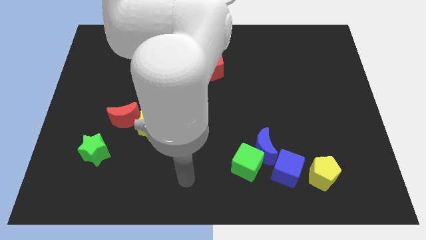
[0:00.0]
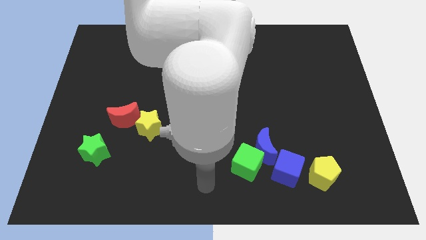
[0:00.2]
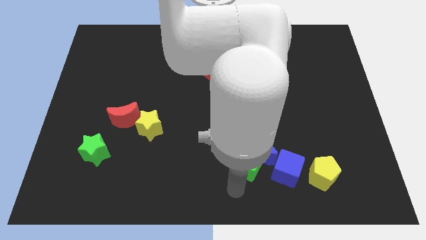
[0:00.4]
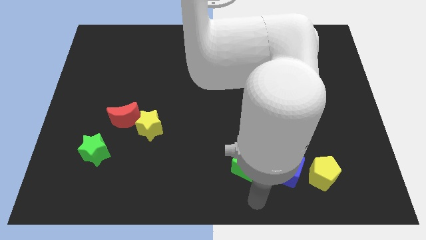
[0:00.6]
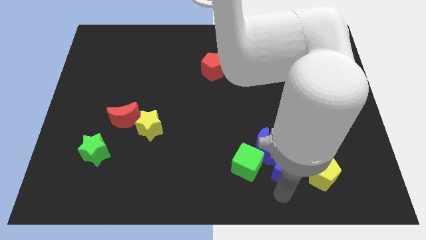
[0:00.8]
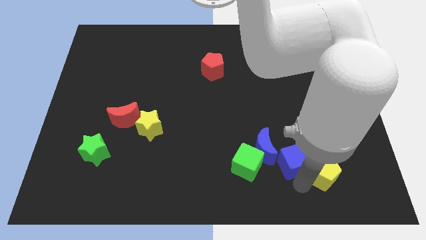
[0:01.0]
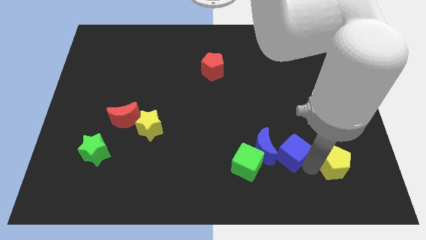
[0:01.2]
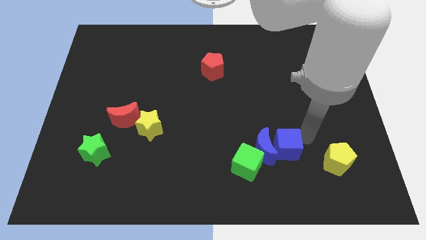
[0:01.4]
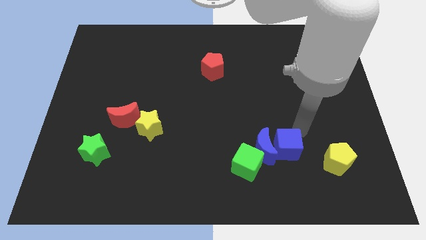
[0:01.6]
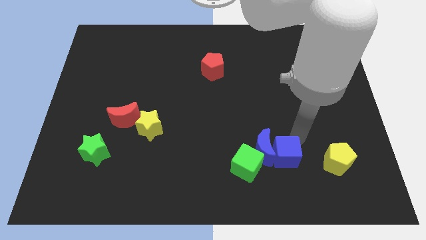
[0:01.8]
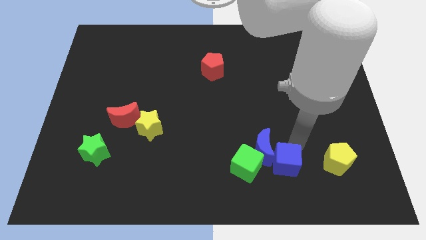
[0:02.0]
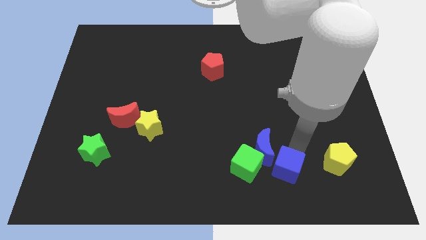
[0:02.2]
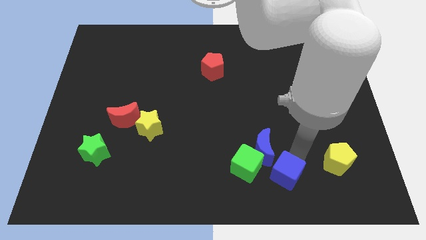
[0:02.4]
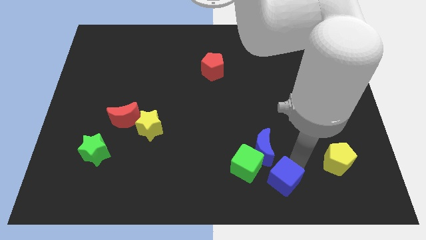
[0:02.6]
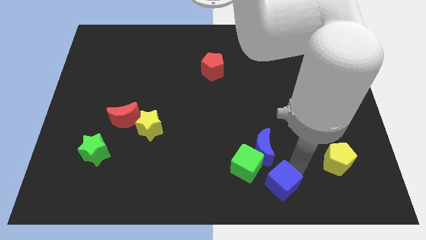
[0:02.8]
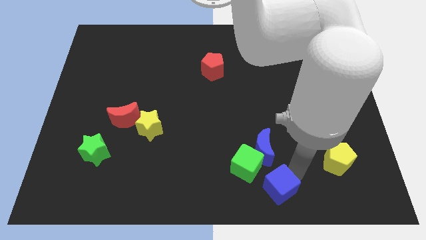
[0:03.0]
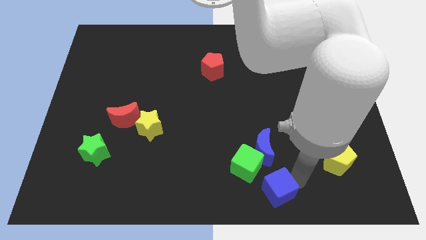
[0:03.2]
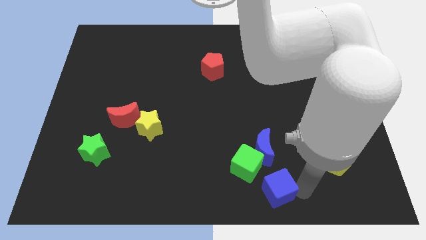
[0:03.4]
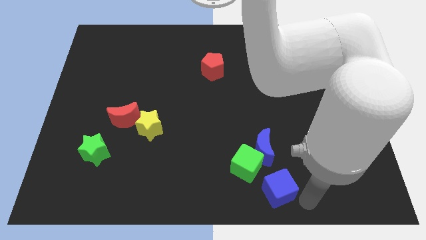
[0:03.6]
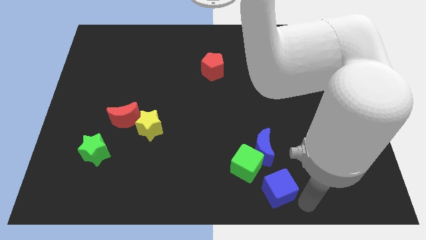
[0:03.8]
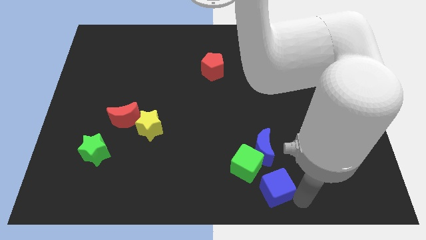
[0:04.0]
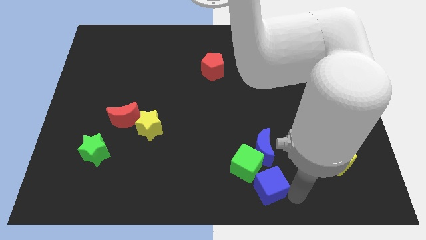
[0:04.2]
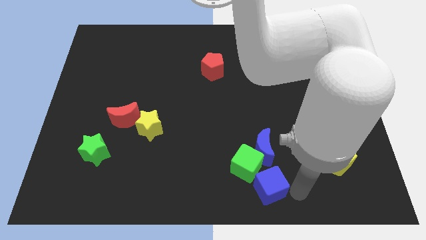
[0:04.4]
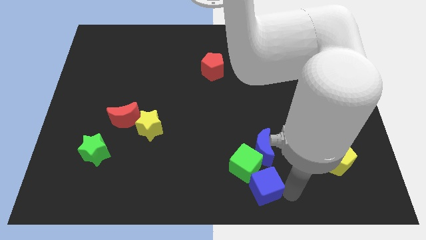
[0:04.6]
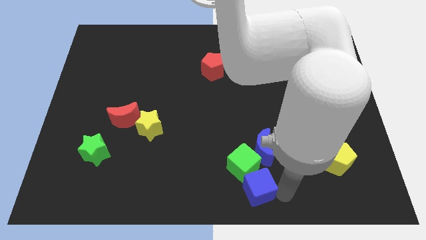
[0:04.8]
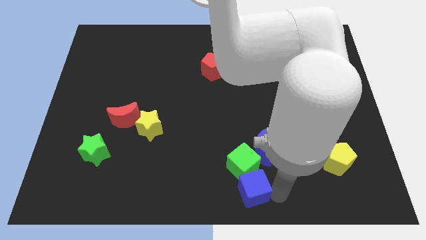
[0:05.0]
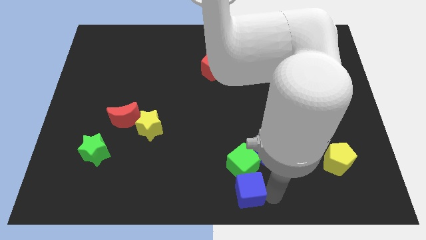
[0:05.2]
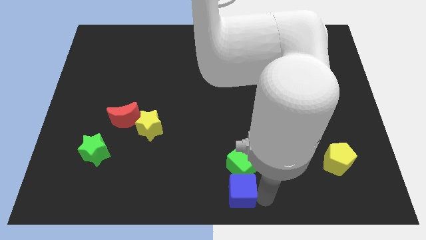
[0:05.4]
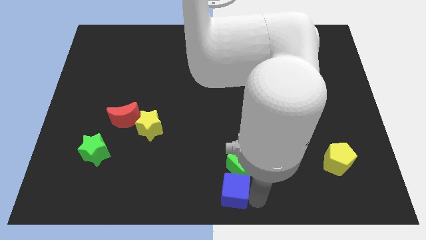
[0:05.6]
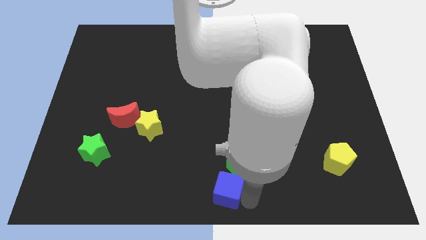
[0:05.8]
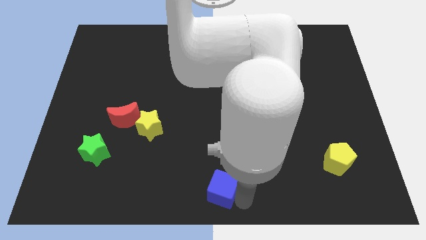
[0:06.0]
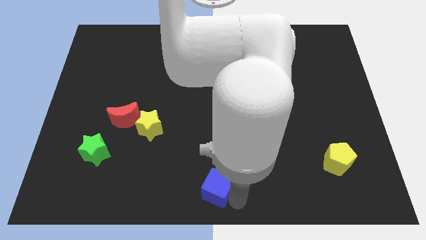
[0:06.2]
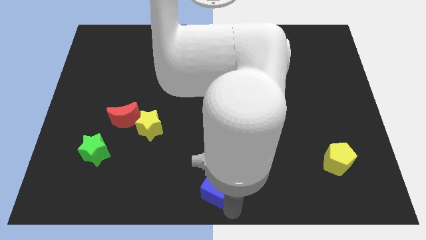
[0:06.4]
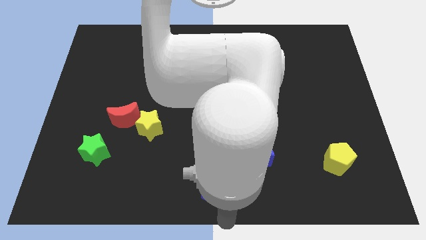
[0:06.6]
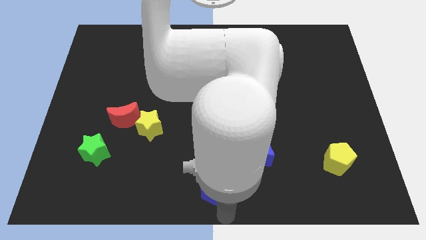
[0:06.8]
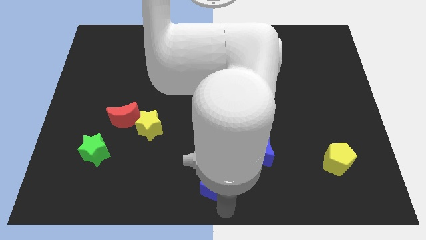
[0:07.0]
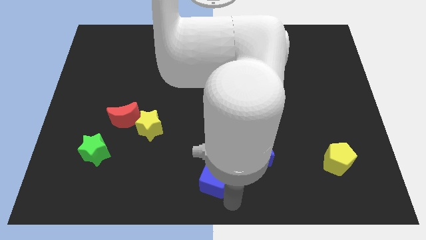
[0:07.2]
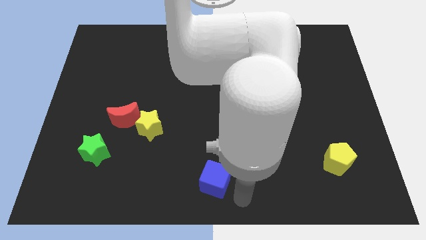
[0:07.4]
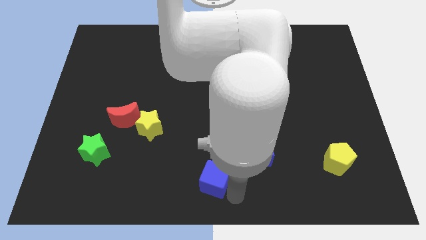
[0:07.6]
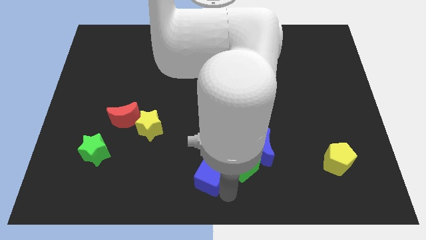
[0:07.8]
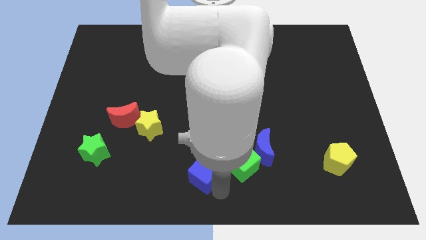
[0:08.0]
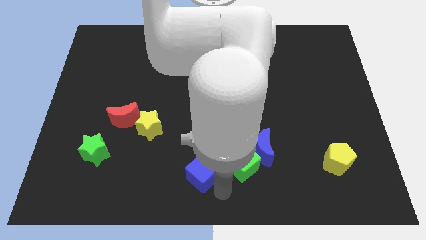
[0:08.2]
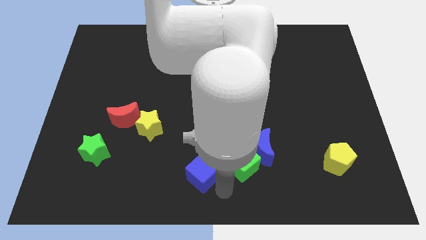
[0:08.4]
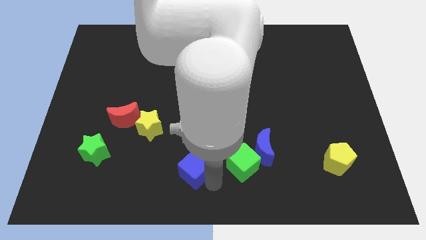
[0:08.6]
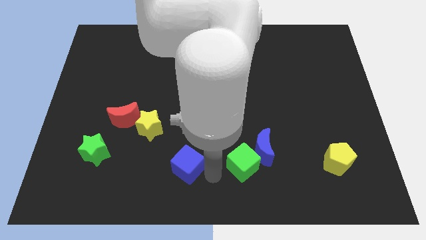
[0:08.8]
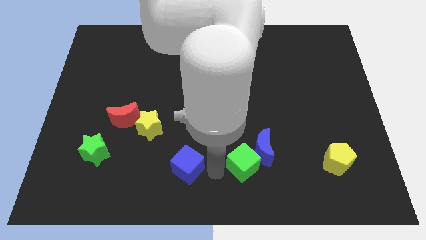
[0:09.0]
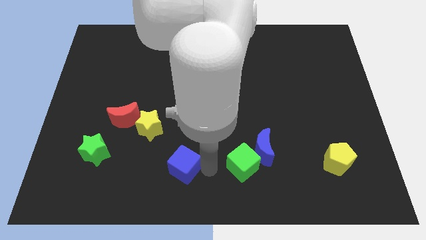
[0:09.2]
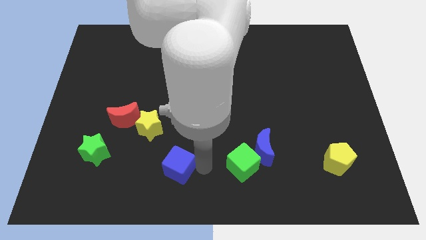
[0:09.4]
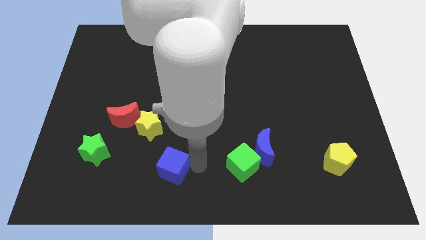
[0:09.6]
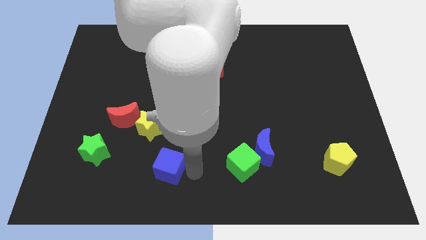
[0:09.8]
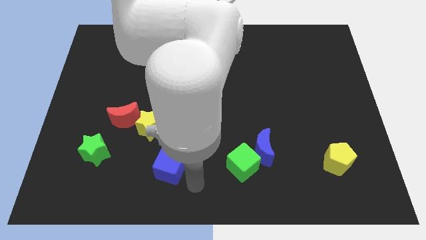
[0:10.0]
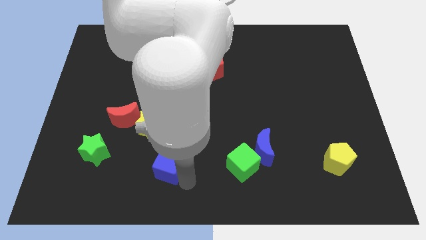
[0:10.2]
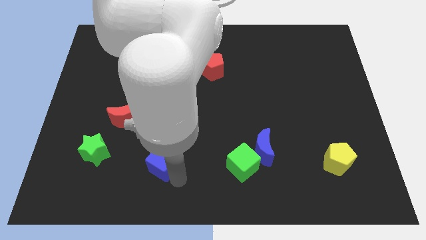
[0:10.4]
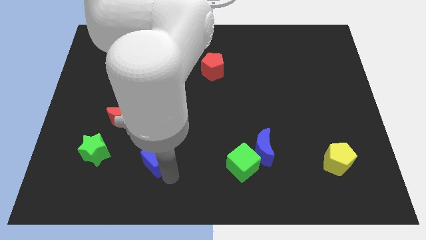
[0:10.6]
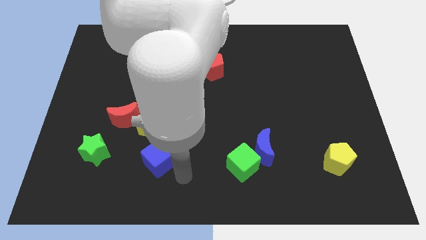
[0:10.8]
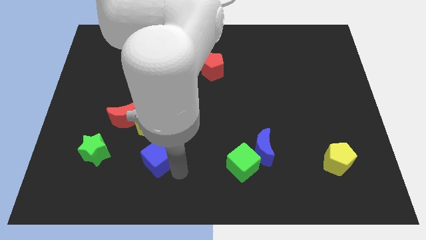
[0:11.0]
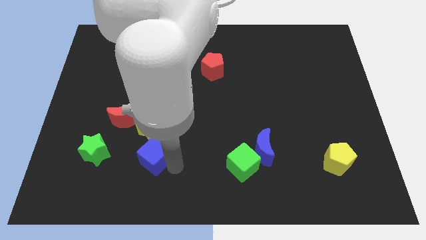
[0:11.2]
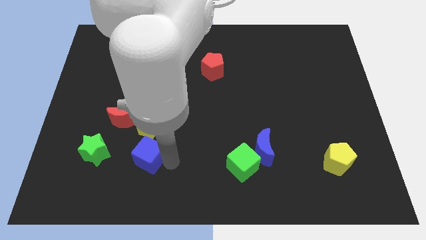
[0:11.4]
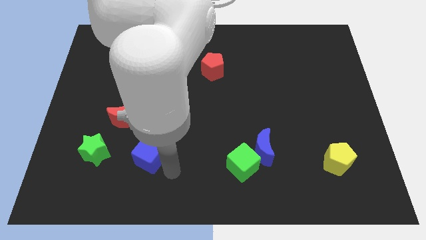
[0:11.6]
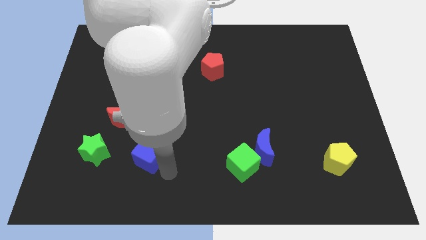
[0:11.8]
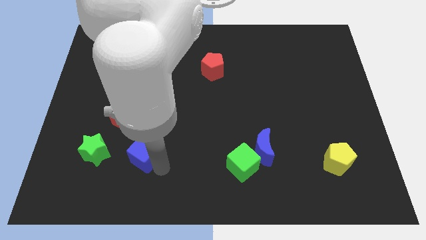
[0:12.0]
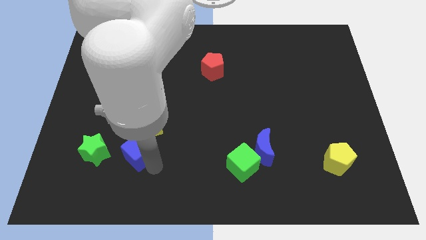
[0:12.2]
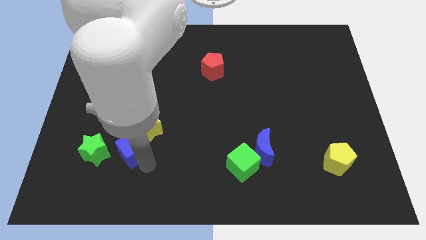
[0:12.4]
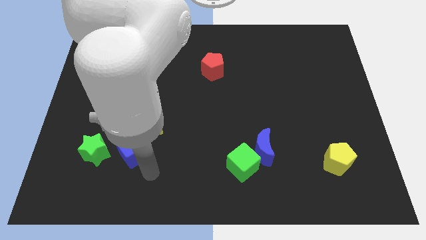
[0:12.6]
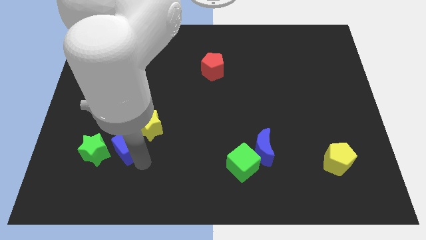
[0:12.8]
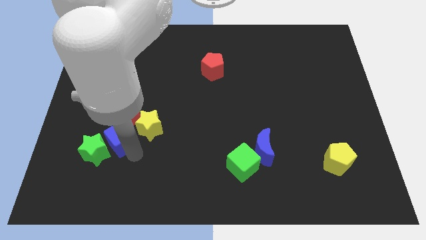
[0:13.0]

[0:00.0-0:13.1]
push the blue cube to the red moon

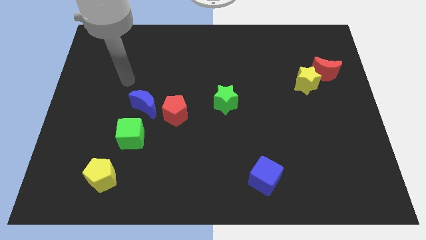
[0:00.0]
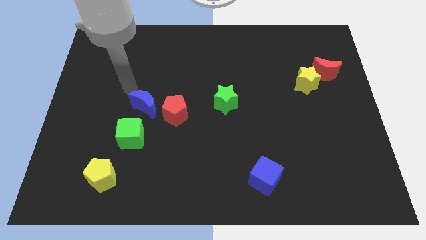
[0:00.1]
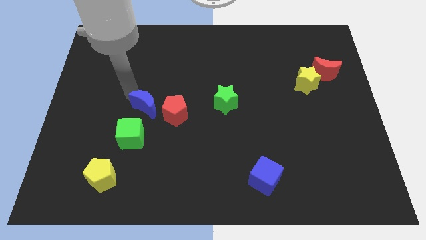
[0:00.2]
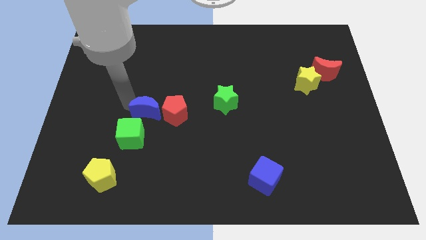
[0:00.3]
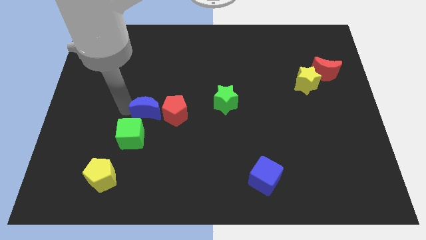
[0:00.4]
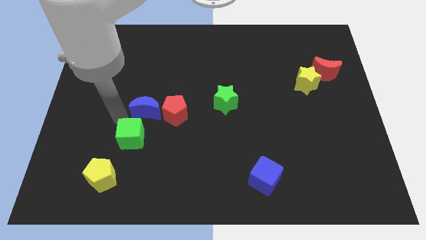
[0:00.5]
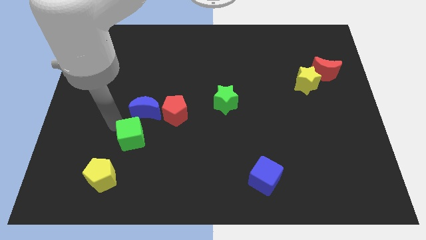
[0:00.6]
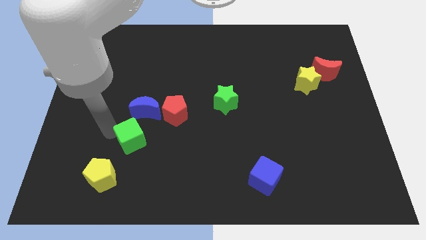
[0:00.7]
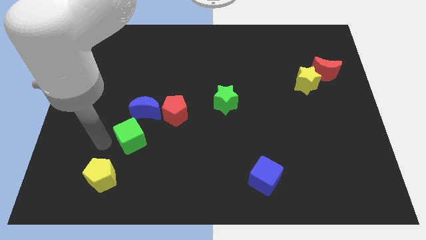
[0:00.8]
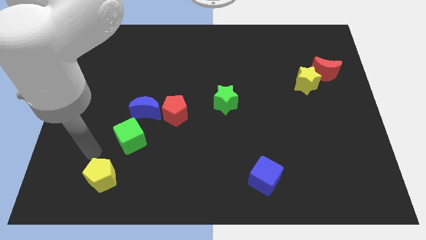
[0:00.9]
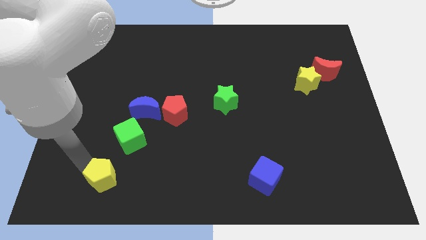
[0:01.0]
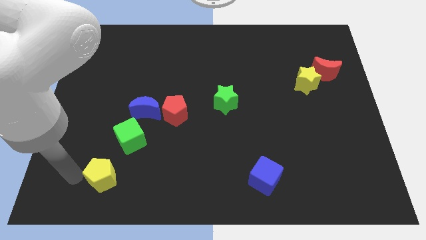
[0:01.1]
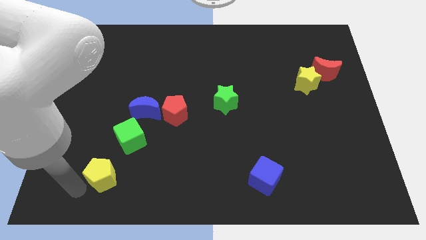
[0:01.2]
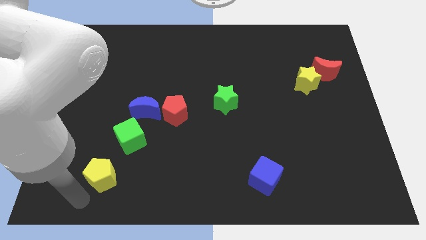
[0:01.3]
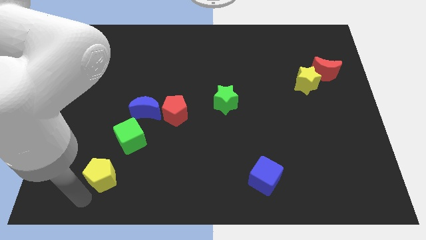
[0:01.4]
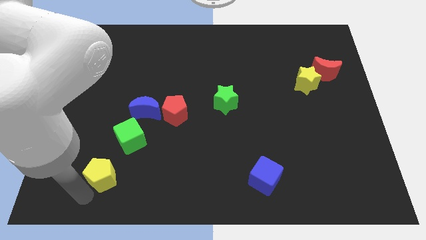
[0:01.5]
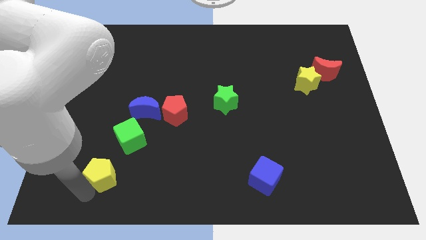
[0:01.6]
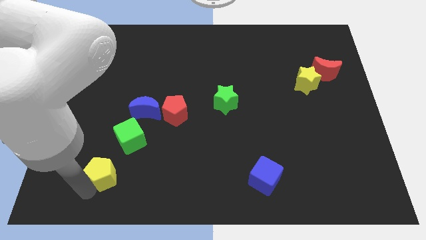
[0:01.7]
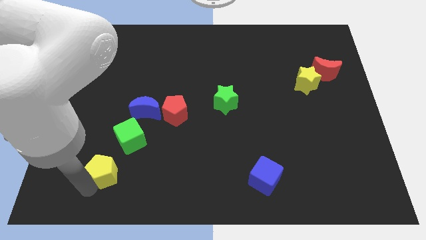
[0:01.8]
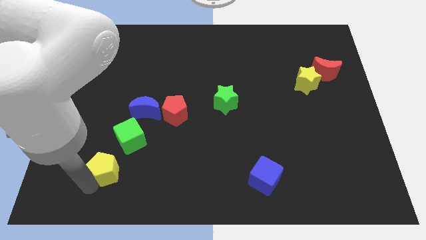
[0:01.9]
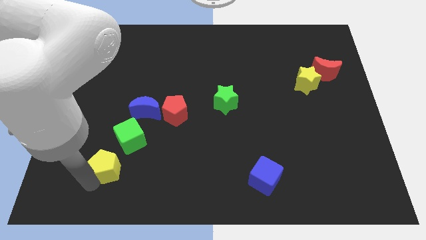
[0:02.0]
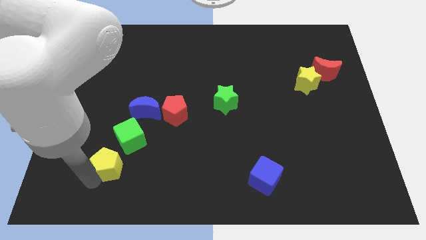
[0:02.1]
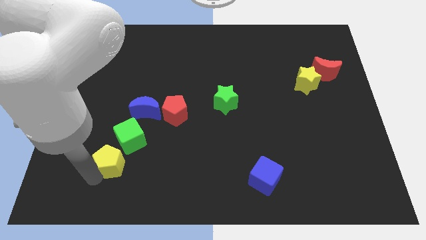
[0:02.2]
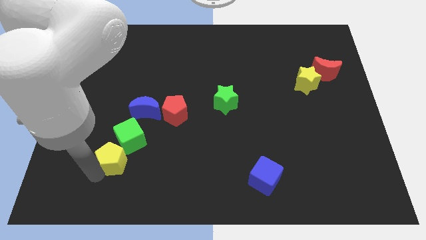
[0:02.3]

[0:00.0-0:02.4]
move the yellow pentagon close to the green cube
